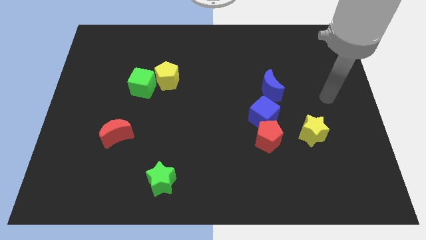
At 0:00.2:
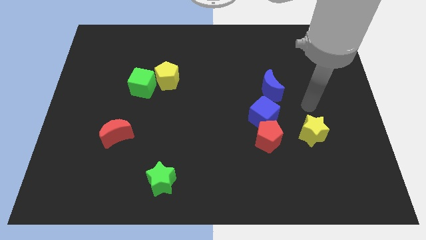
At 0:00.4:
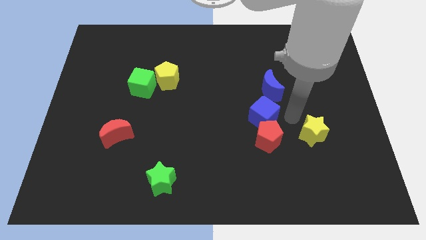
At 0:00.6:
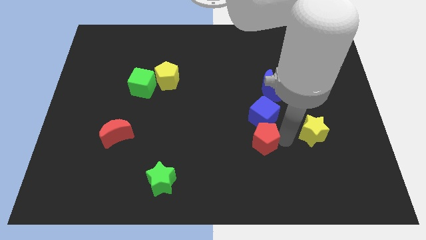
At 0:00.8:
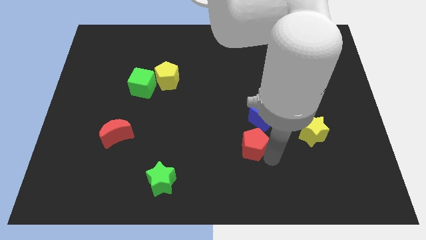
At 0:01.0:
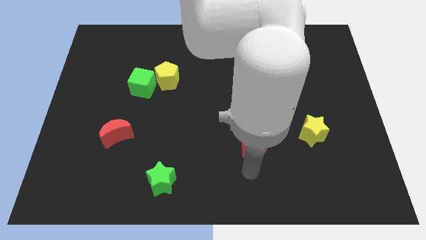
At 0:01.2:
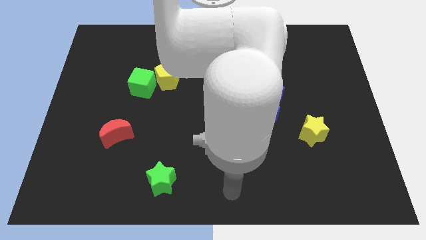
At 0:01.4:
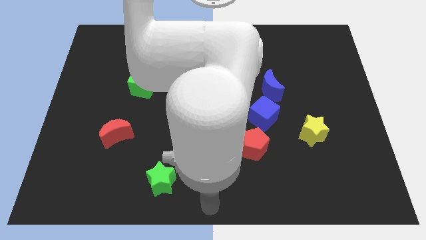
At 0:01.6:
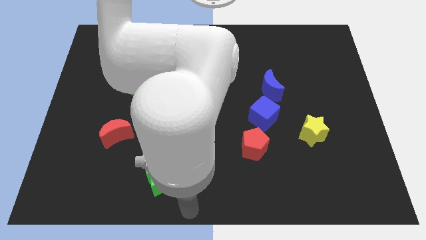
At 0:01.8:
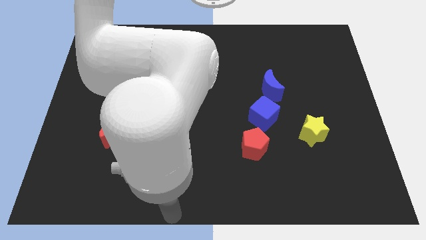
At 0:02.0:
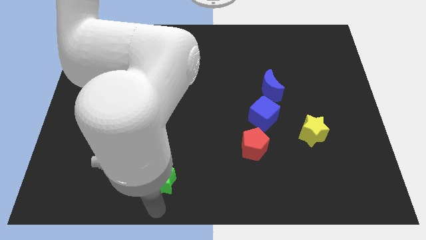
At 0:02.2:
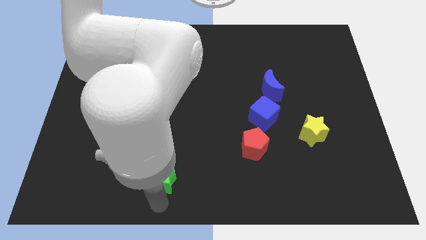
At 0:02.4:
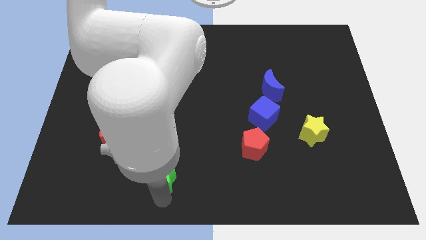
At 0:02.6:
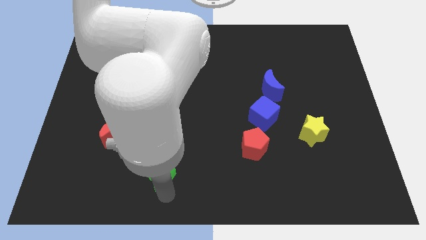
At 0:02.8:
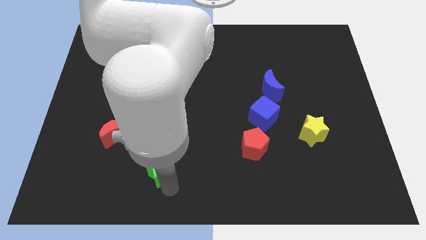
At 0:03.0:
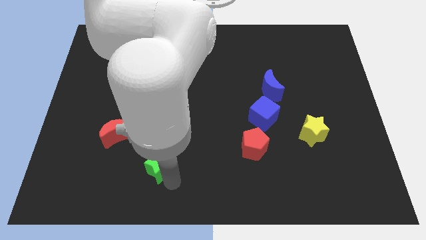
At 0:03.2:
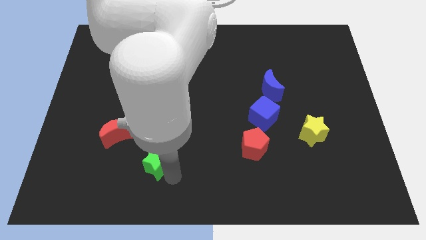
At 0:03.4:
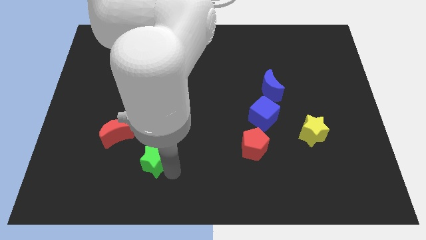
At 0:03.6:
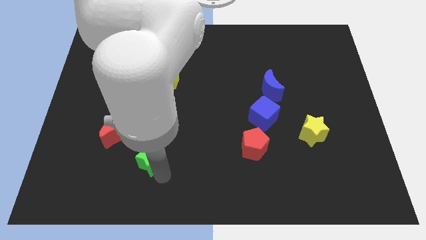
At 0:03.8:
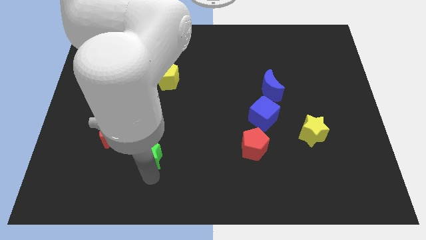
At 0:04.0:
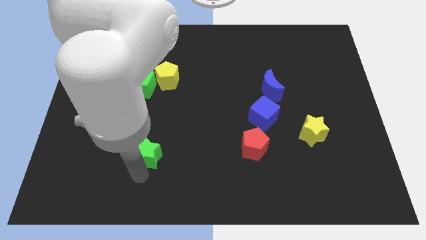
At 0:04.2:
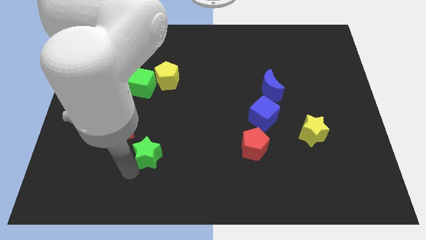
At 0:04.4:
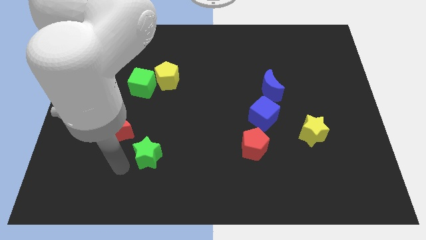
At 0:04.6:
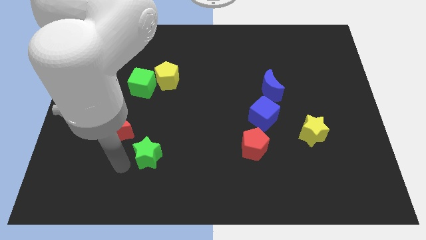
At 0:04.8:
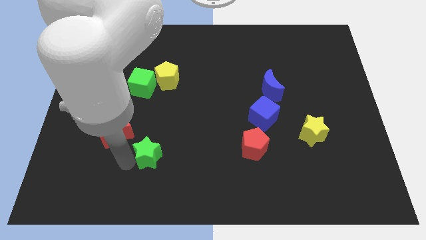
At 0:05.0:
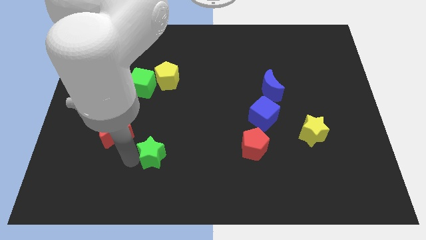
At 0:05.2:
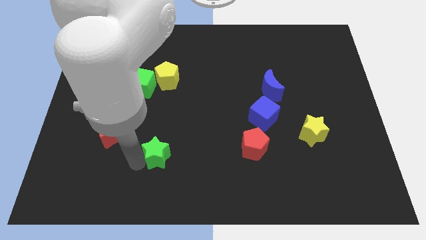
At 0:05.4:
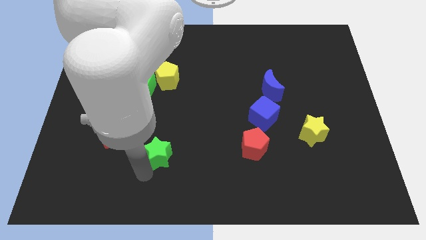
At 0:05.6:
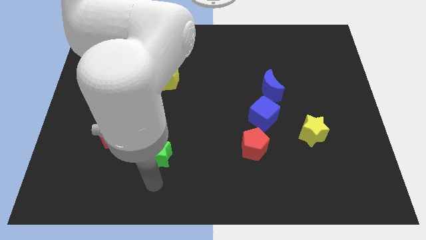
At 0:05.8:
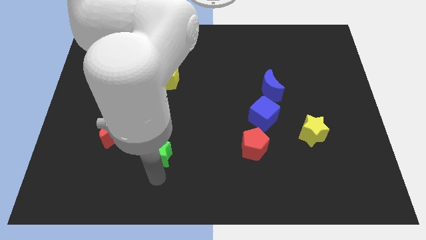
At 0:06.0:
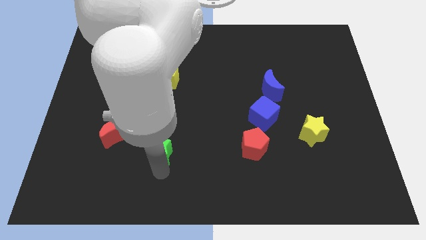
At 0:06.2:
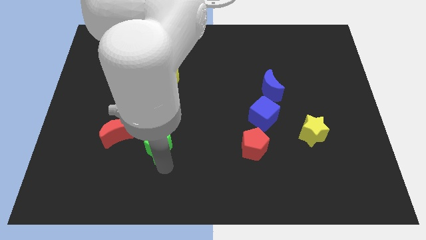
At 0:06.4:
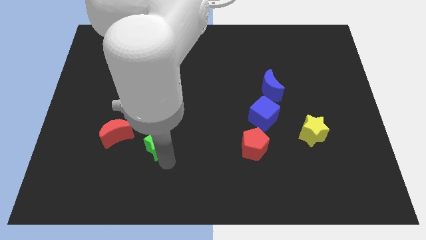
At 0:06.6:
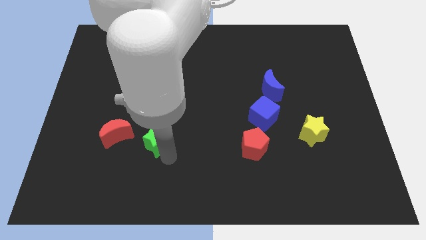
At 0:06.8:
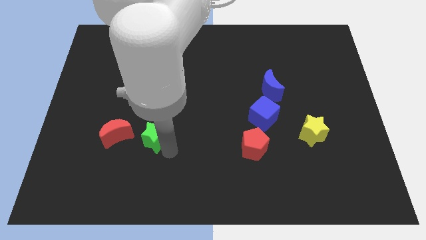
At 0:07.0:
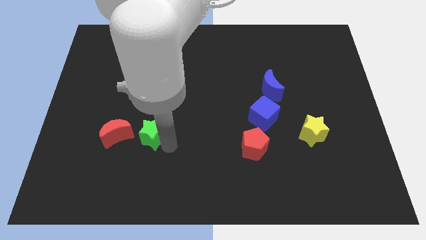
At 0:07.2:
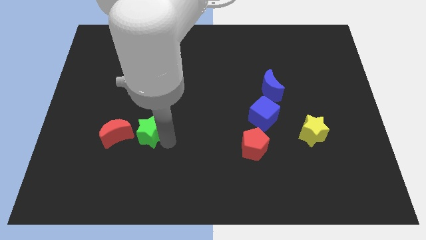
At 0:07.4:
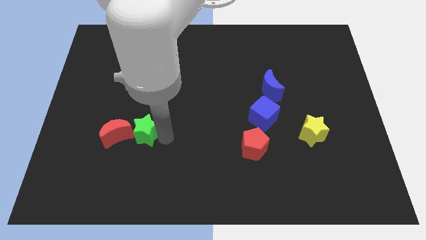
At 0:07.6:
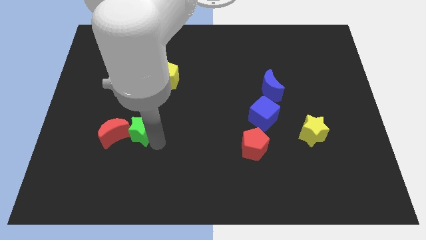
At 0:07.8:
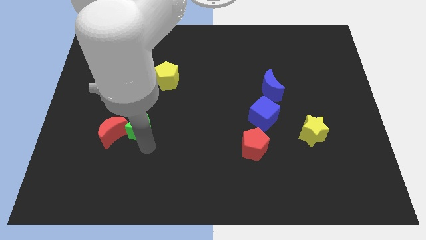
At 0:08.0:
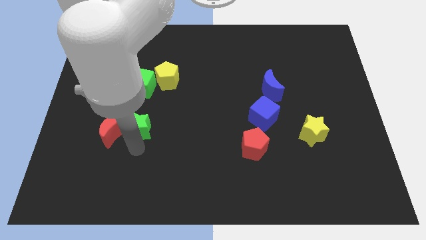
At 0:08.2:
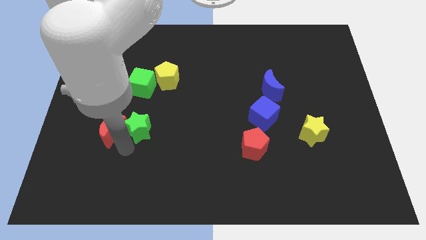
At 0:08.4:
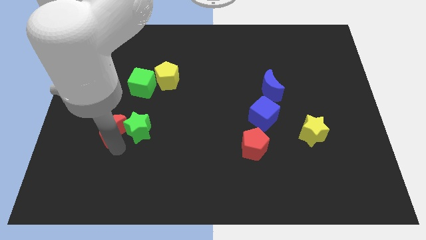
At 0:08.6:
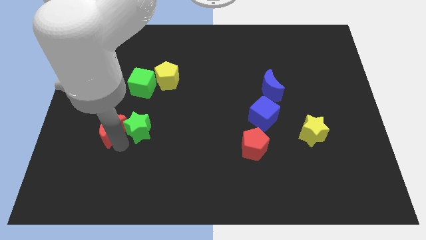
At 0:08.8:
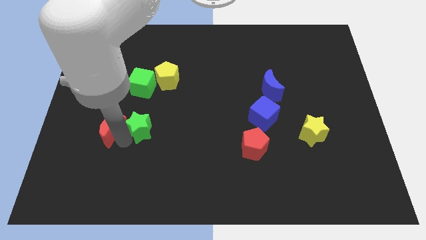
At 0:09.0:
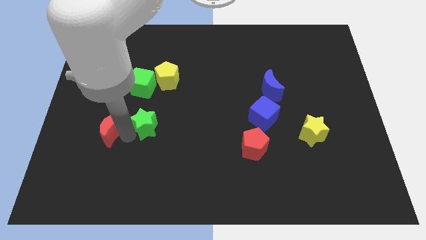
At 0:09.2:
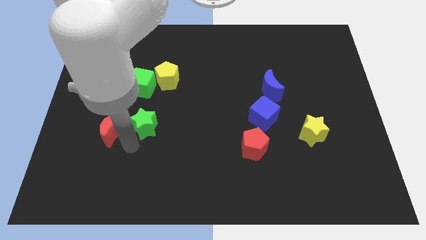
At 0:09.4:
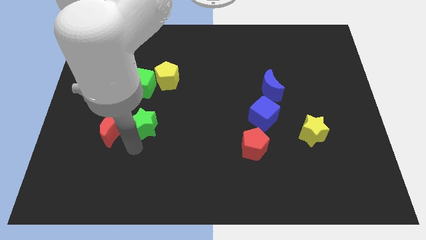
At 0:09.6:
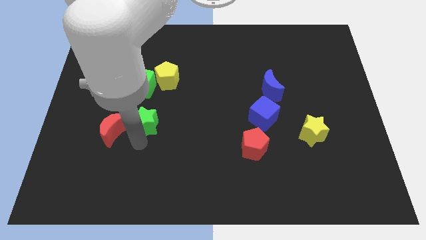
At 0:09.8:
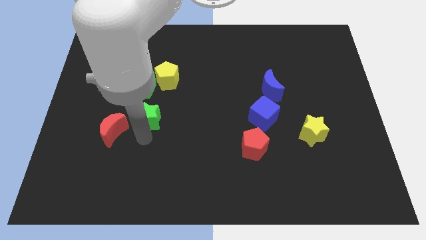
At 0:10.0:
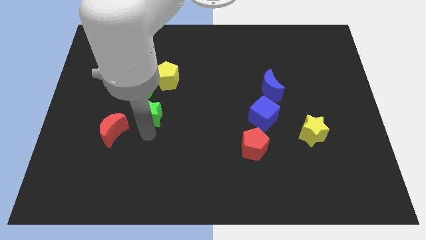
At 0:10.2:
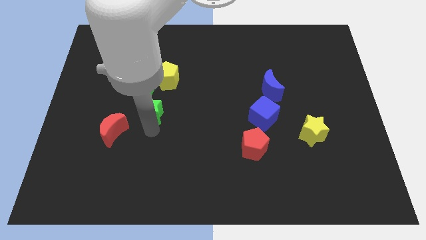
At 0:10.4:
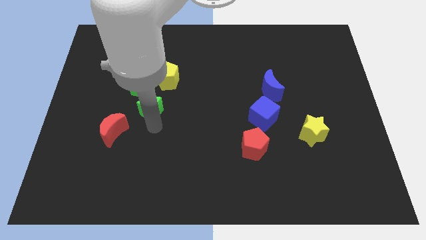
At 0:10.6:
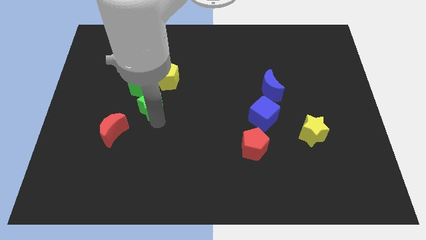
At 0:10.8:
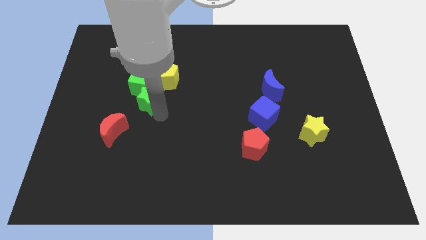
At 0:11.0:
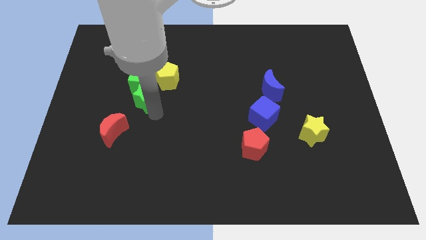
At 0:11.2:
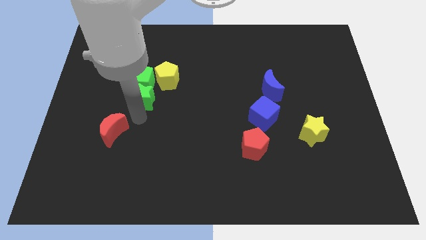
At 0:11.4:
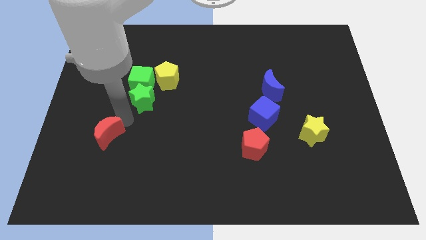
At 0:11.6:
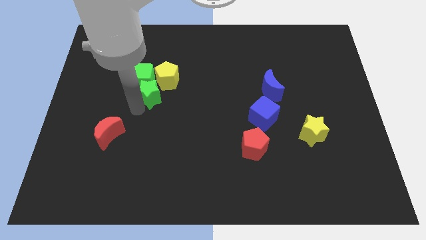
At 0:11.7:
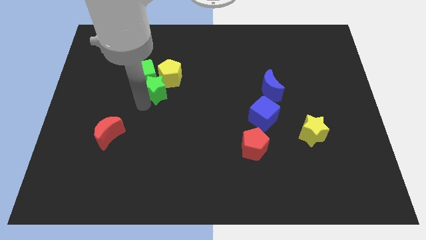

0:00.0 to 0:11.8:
put the green star next to the yellow pentagon

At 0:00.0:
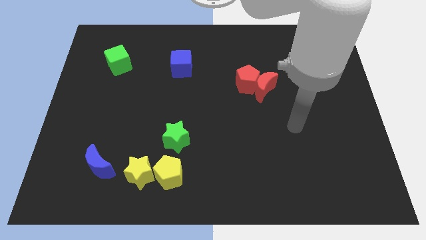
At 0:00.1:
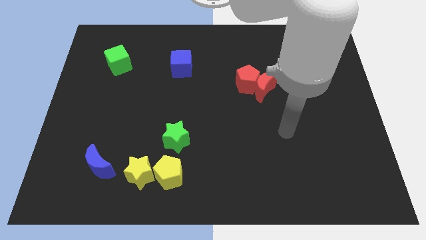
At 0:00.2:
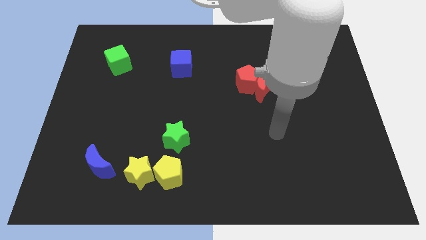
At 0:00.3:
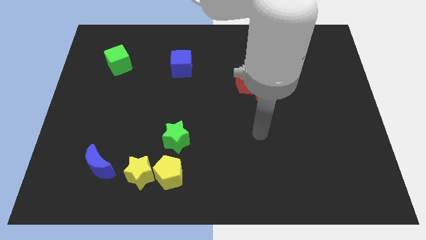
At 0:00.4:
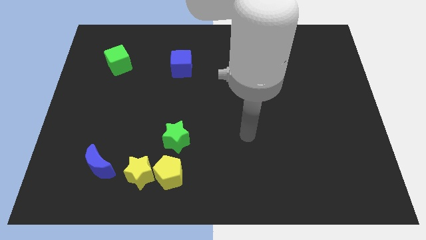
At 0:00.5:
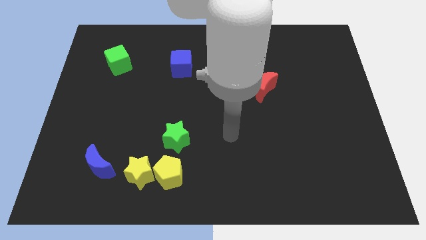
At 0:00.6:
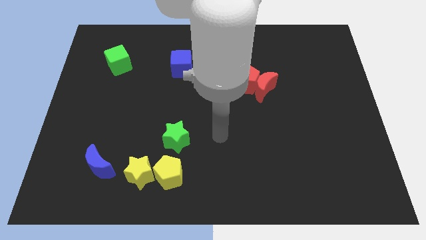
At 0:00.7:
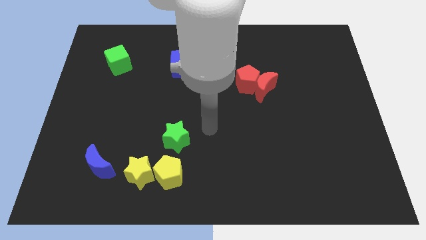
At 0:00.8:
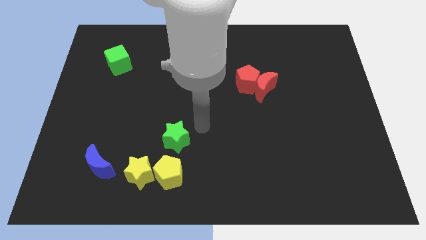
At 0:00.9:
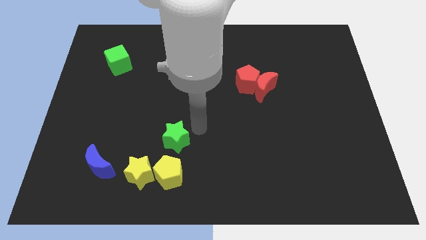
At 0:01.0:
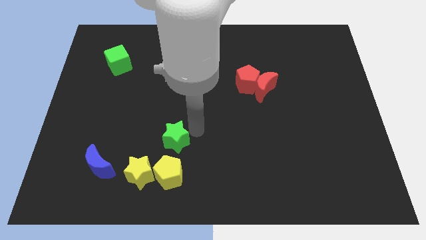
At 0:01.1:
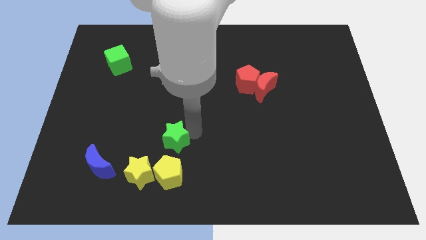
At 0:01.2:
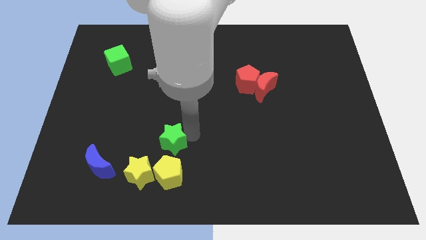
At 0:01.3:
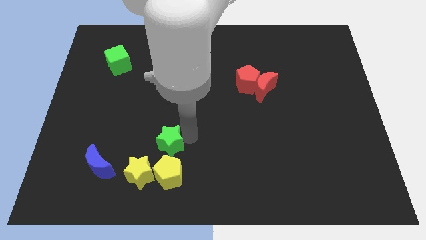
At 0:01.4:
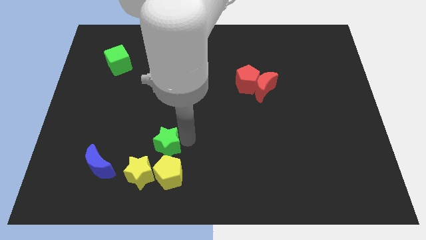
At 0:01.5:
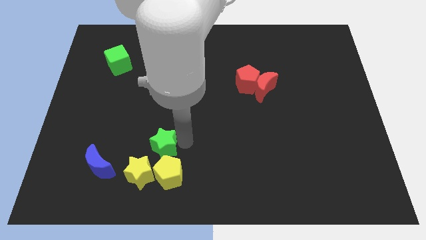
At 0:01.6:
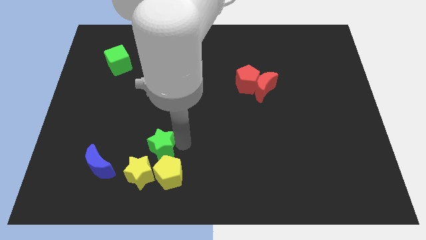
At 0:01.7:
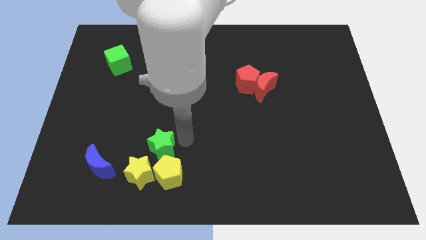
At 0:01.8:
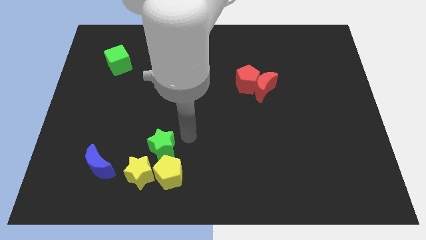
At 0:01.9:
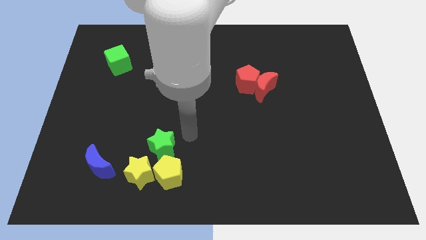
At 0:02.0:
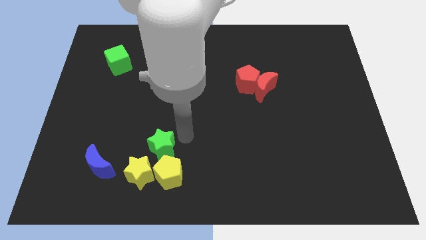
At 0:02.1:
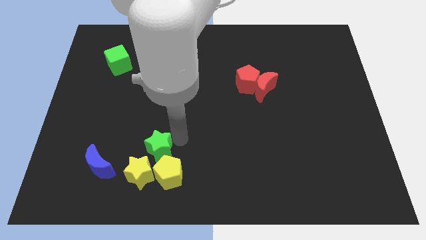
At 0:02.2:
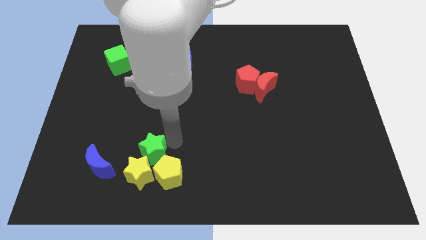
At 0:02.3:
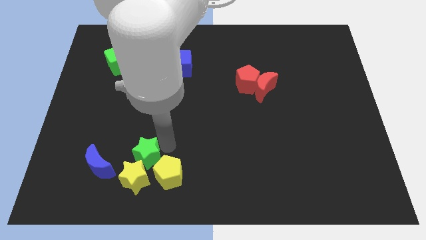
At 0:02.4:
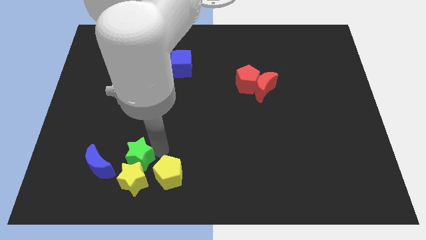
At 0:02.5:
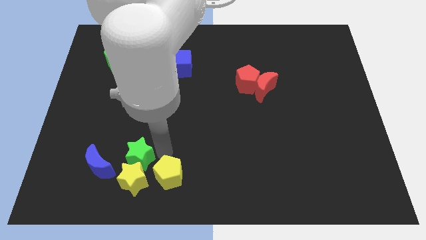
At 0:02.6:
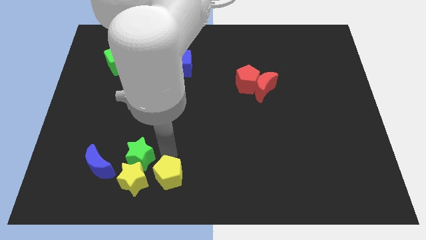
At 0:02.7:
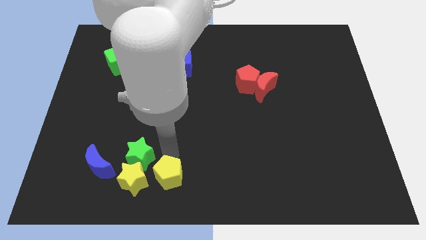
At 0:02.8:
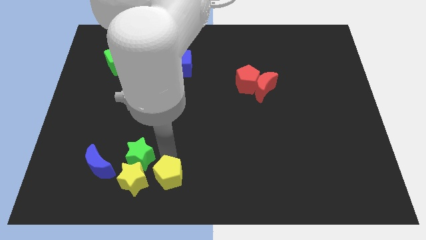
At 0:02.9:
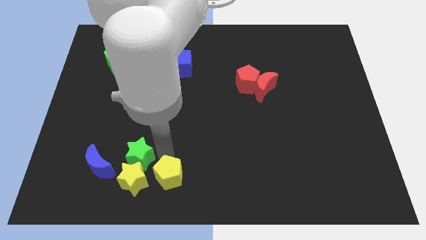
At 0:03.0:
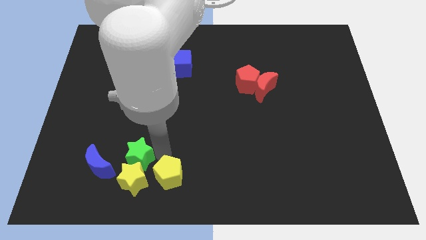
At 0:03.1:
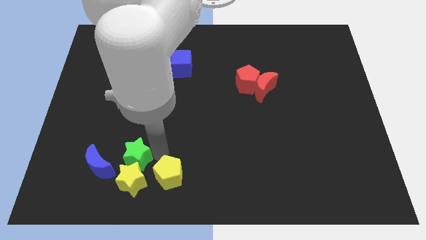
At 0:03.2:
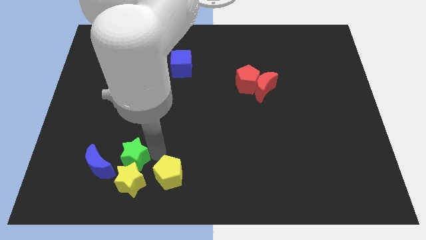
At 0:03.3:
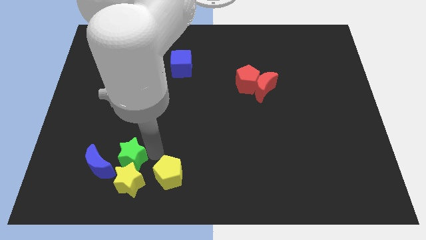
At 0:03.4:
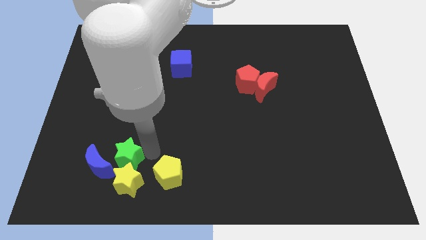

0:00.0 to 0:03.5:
move the green star to the blue moon
